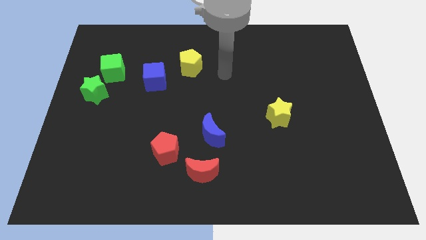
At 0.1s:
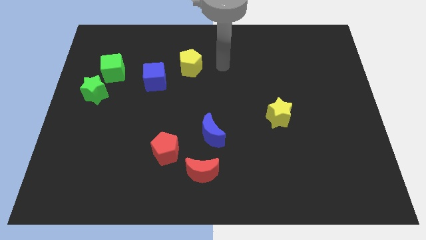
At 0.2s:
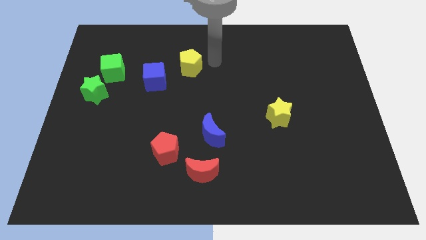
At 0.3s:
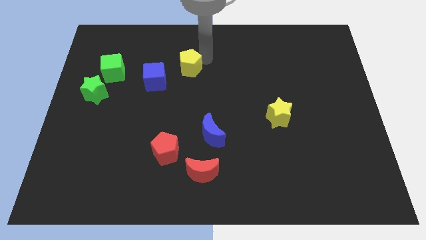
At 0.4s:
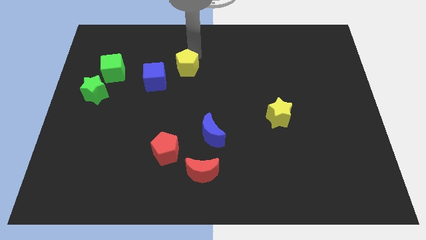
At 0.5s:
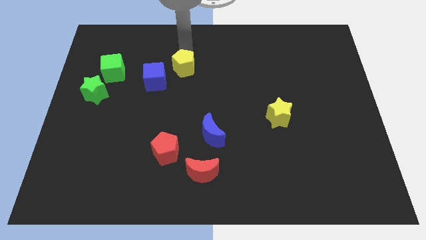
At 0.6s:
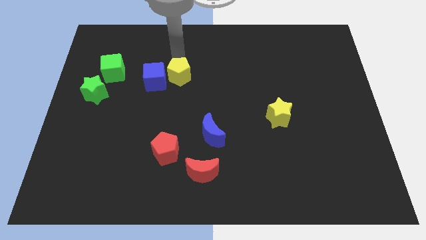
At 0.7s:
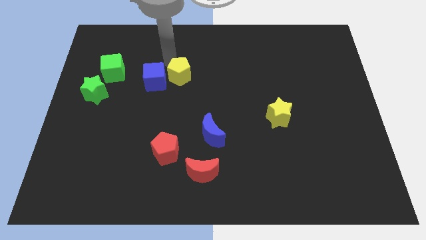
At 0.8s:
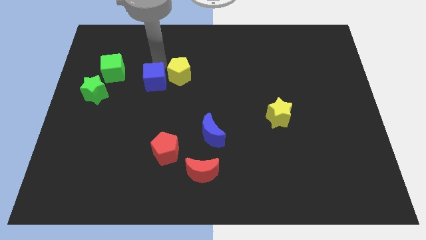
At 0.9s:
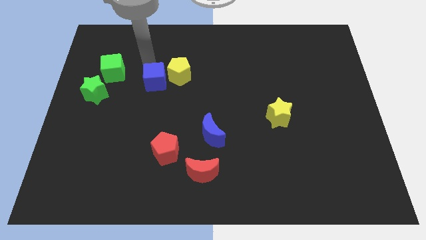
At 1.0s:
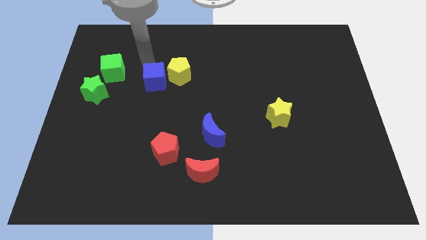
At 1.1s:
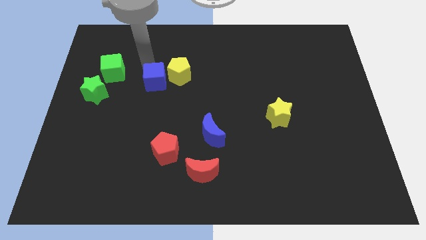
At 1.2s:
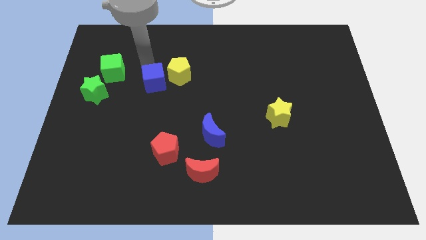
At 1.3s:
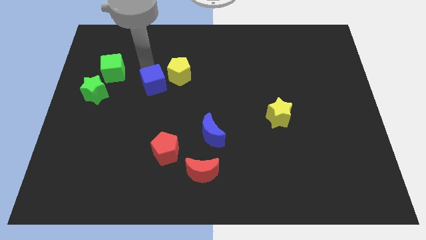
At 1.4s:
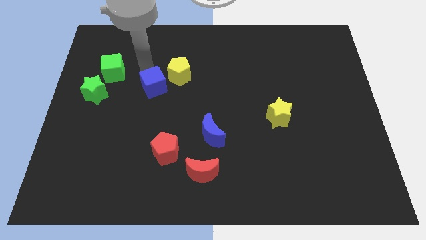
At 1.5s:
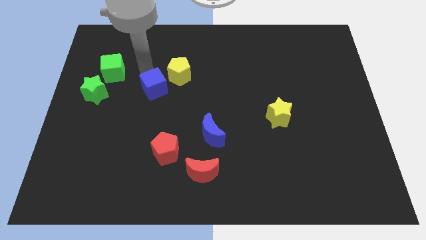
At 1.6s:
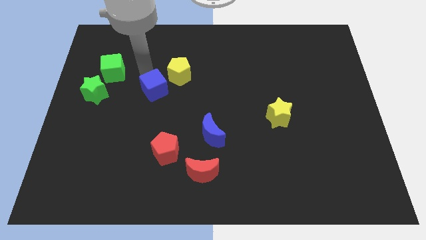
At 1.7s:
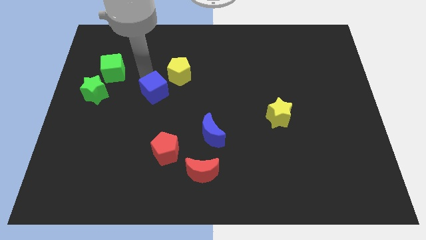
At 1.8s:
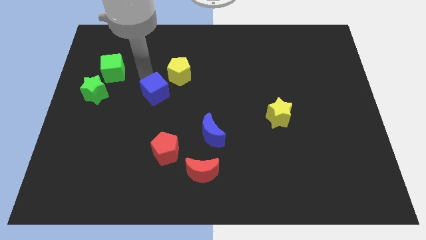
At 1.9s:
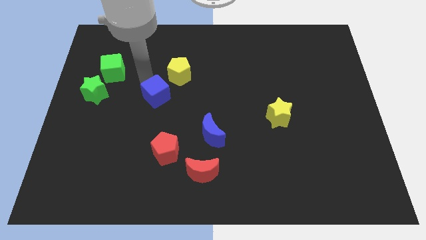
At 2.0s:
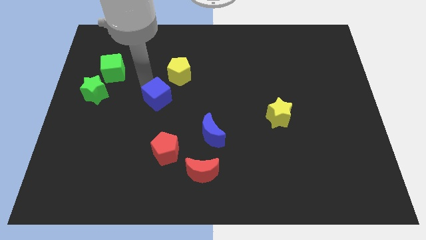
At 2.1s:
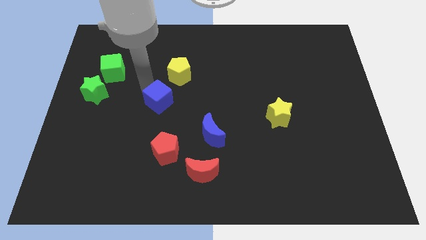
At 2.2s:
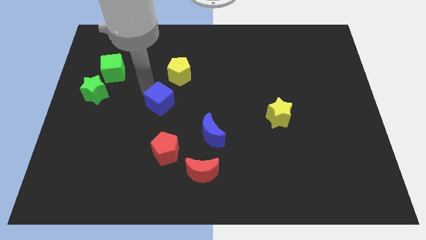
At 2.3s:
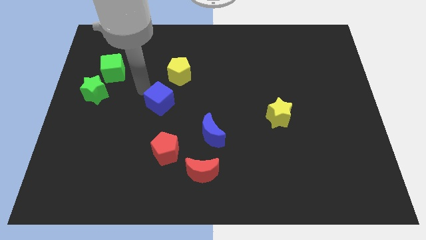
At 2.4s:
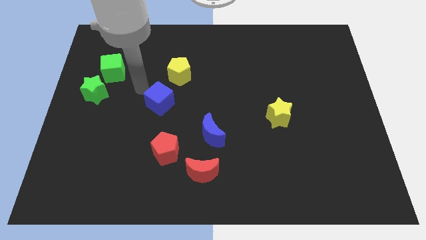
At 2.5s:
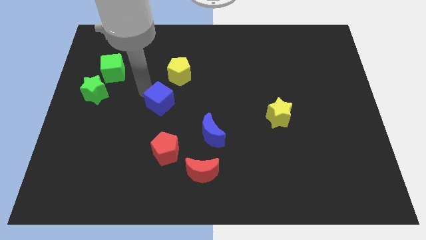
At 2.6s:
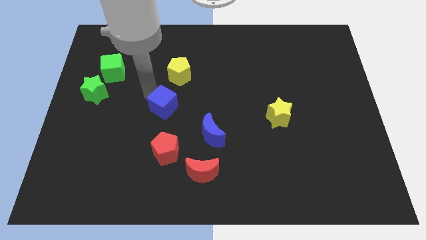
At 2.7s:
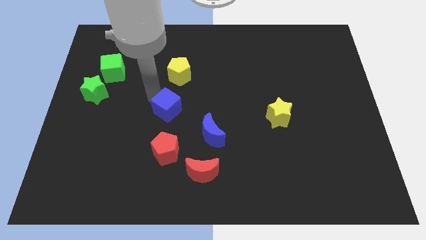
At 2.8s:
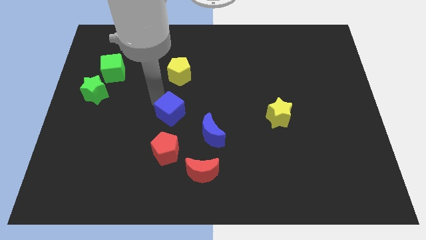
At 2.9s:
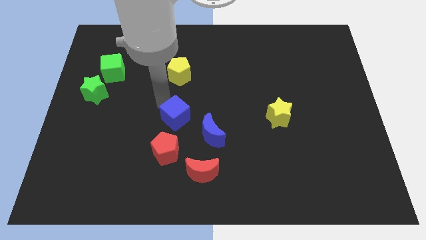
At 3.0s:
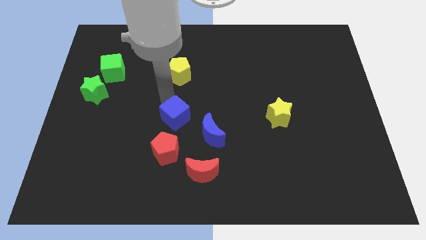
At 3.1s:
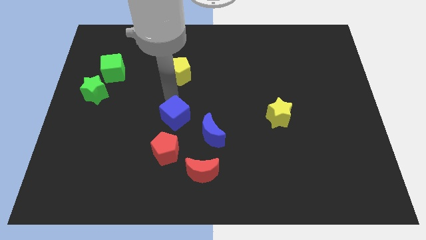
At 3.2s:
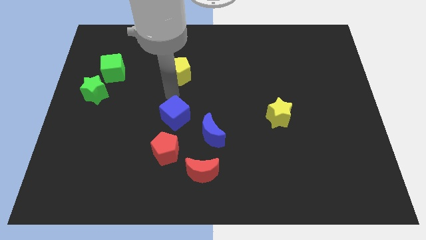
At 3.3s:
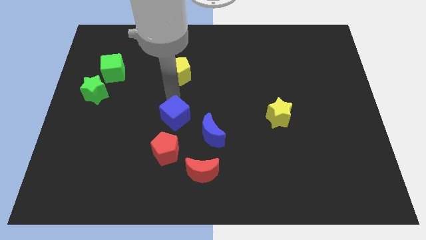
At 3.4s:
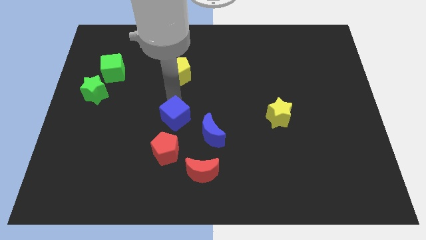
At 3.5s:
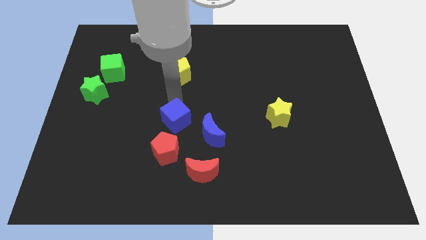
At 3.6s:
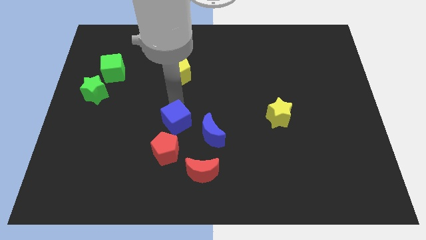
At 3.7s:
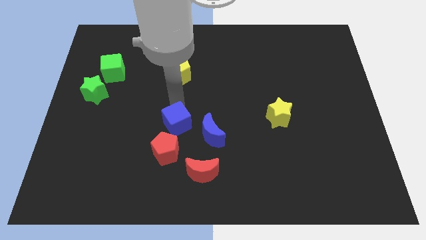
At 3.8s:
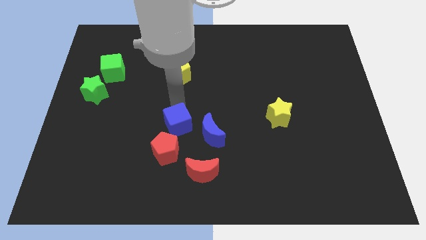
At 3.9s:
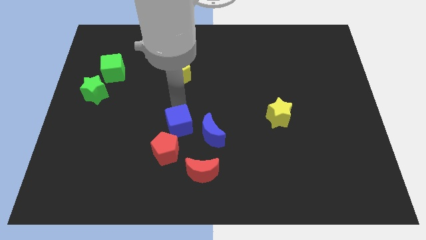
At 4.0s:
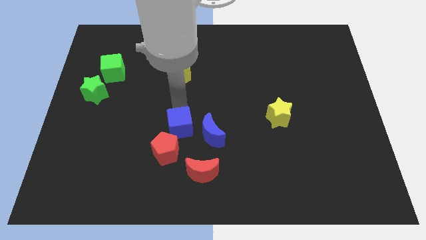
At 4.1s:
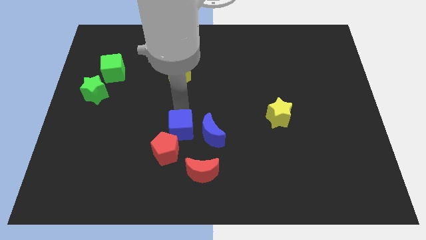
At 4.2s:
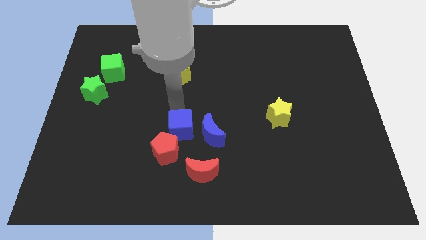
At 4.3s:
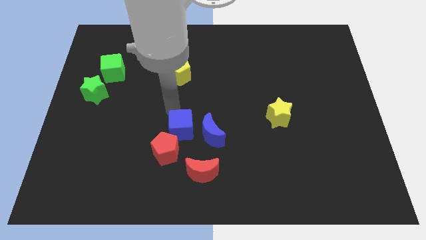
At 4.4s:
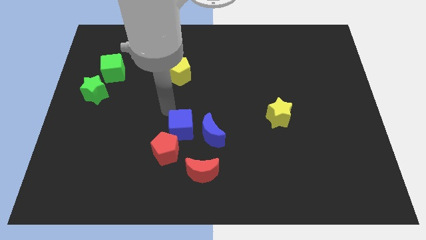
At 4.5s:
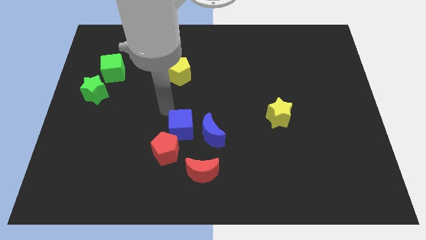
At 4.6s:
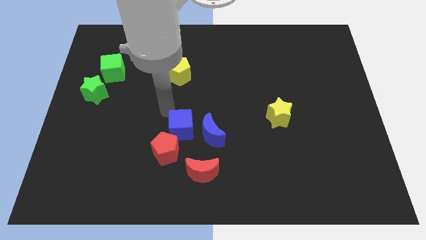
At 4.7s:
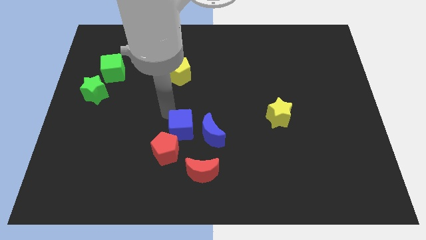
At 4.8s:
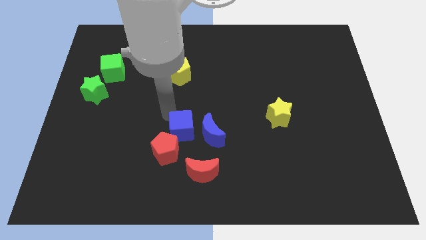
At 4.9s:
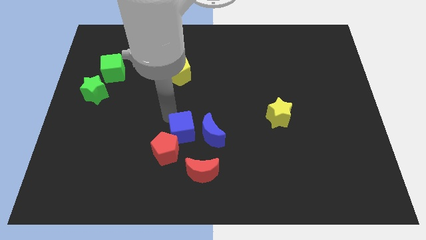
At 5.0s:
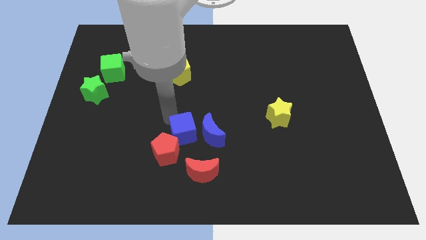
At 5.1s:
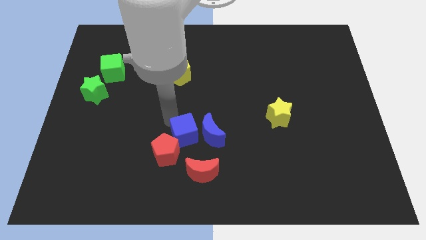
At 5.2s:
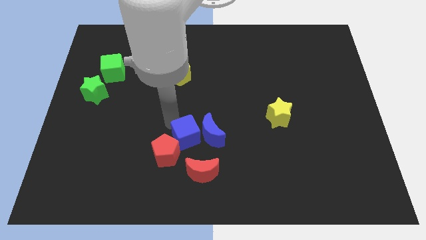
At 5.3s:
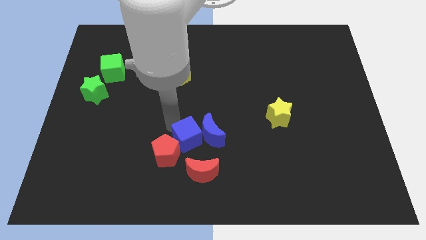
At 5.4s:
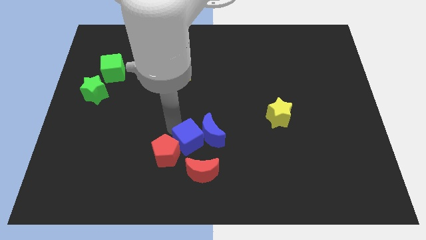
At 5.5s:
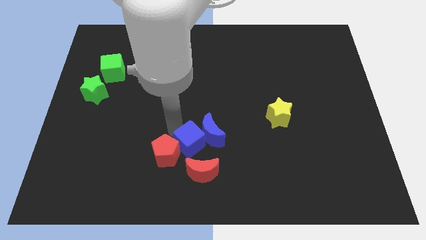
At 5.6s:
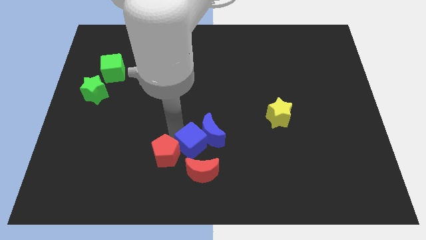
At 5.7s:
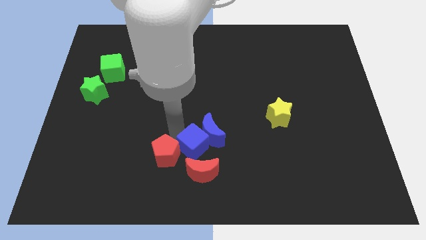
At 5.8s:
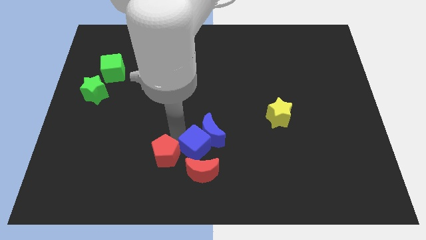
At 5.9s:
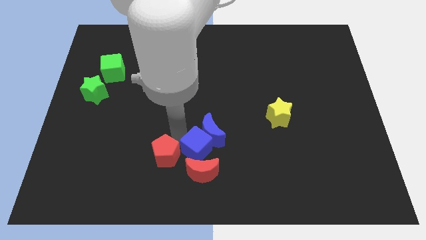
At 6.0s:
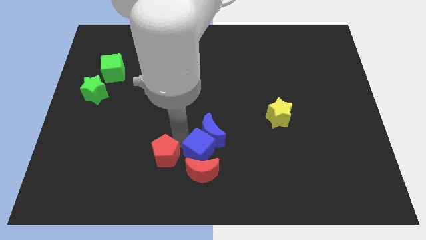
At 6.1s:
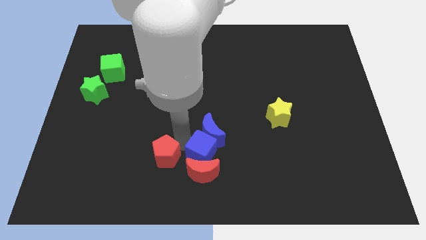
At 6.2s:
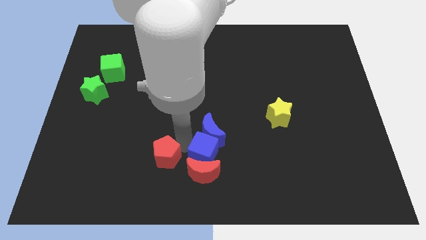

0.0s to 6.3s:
push the blue cube to the bottom side
